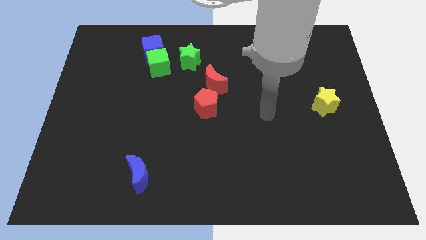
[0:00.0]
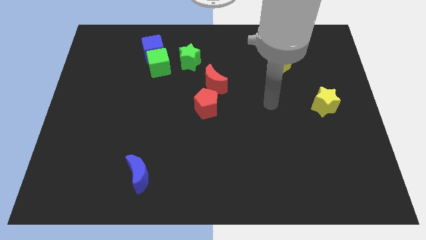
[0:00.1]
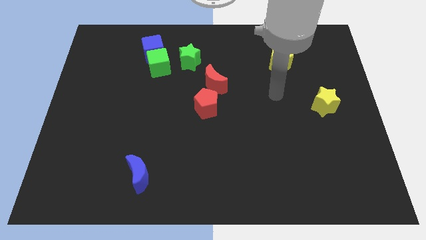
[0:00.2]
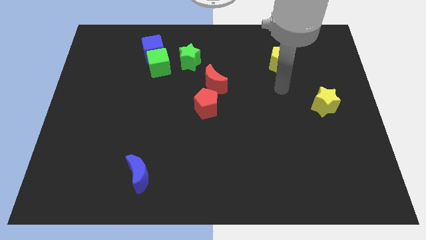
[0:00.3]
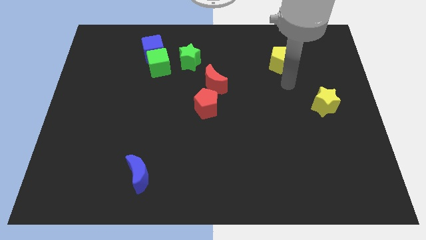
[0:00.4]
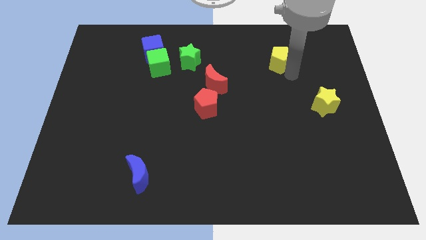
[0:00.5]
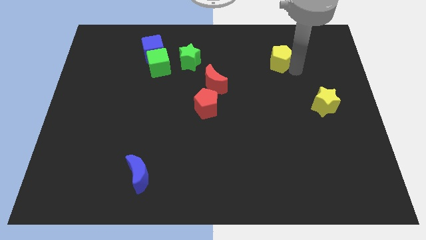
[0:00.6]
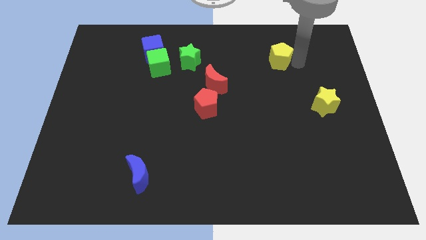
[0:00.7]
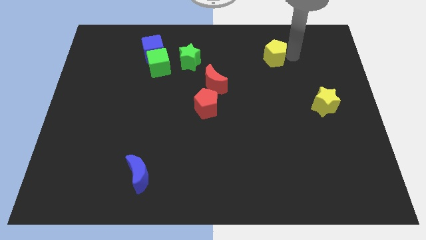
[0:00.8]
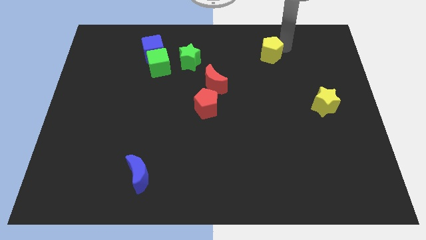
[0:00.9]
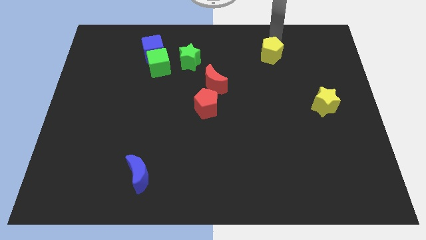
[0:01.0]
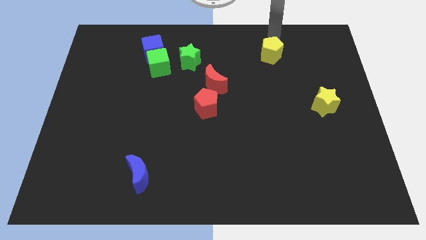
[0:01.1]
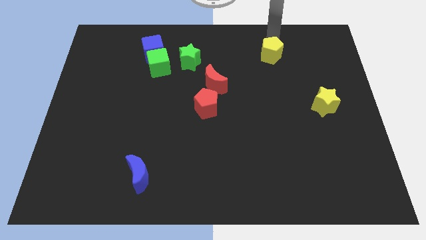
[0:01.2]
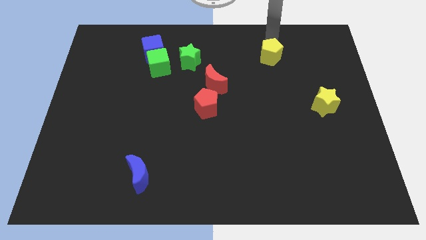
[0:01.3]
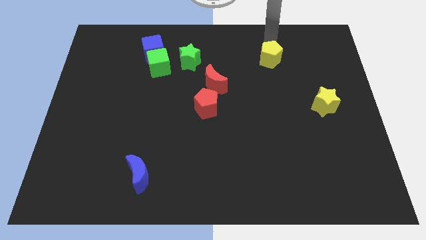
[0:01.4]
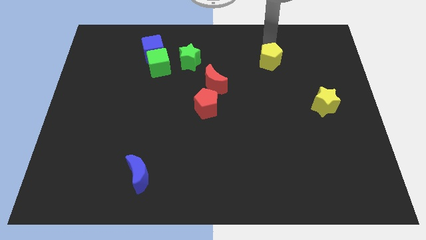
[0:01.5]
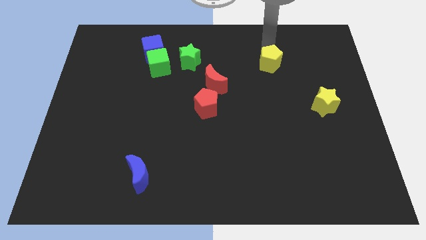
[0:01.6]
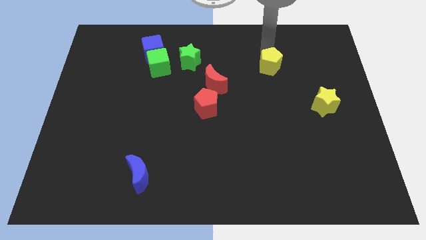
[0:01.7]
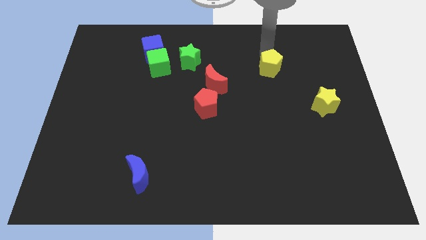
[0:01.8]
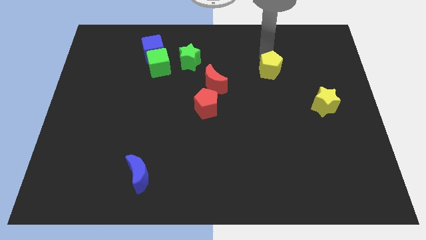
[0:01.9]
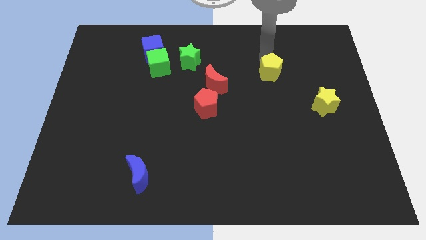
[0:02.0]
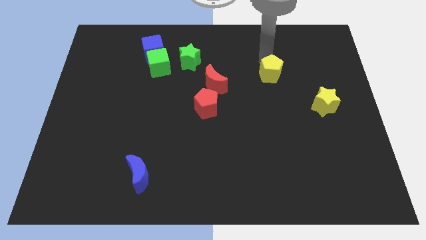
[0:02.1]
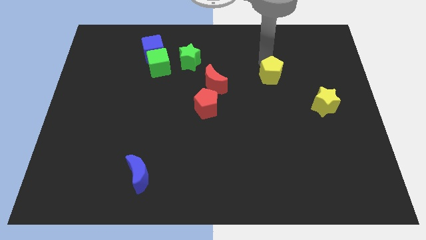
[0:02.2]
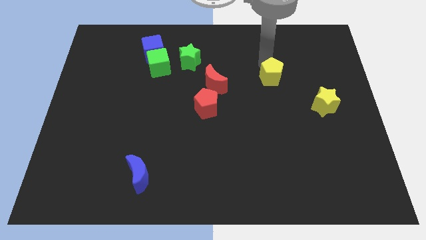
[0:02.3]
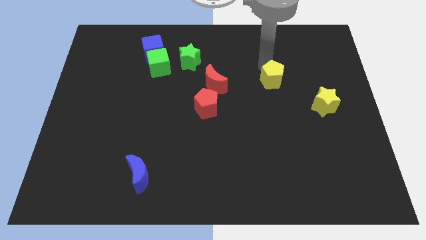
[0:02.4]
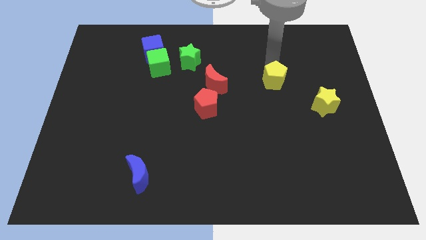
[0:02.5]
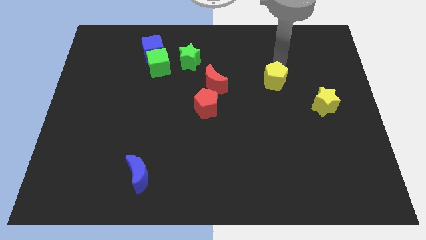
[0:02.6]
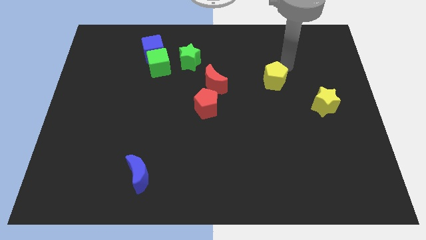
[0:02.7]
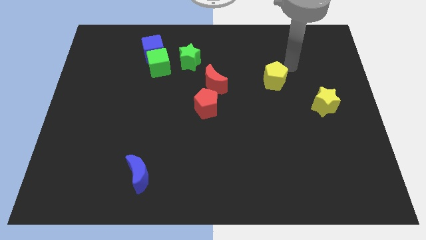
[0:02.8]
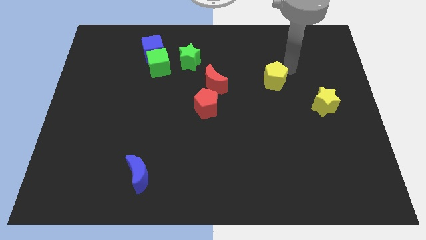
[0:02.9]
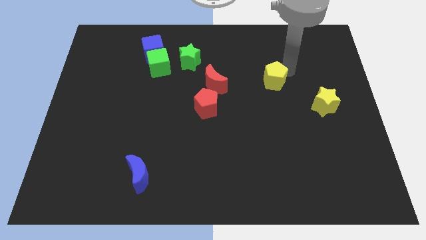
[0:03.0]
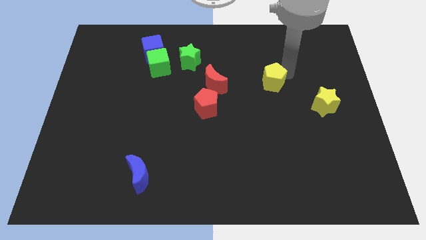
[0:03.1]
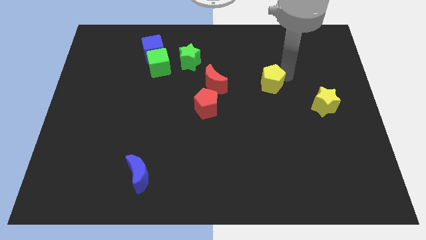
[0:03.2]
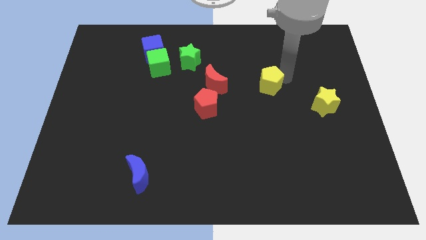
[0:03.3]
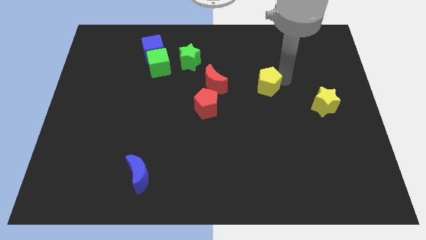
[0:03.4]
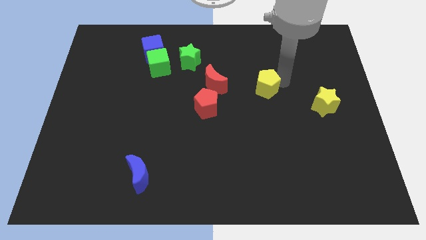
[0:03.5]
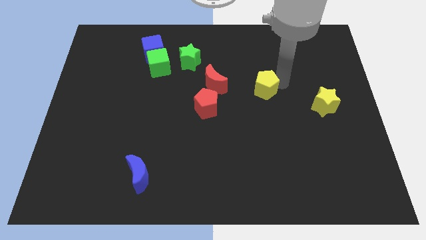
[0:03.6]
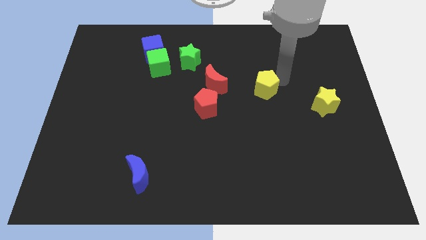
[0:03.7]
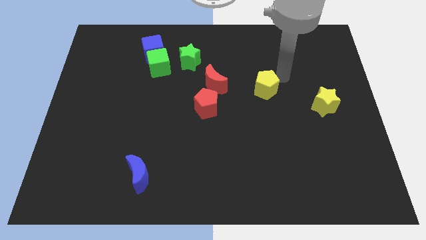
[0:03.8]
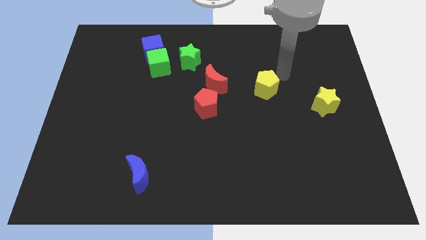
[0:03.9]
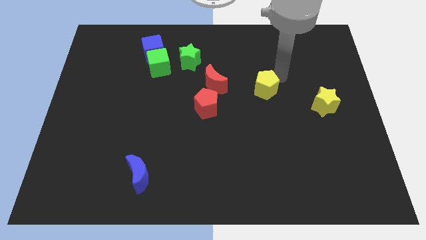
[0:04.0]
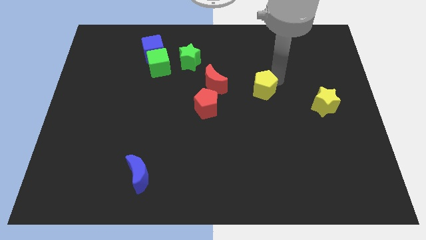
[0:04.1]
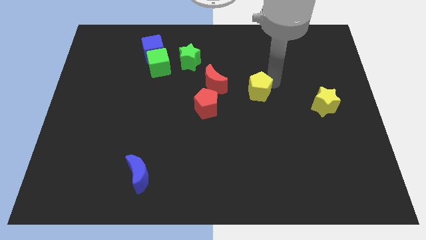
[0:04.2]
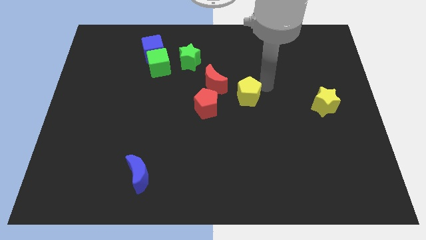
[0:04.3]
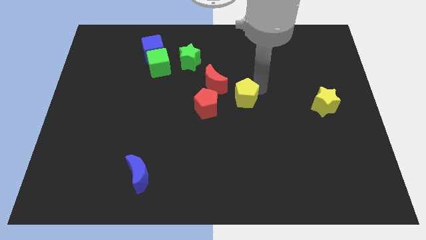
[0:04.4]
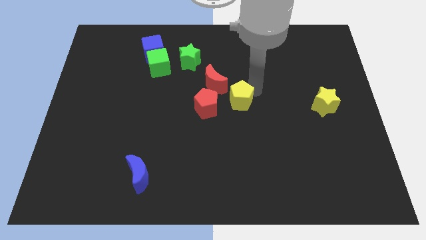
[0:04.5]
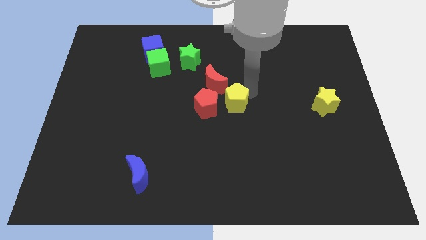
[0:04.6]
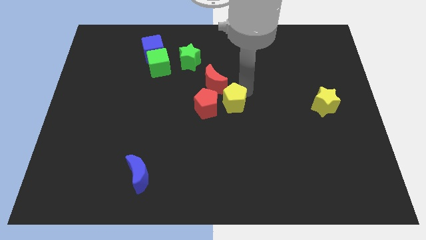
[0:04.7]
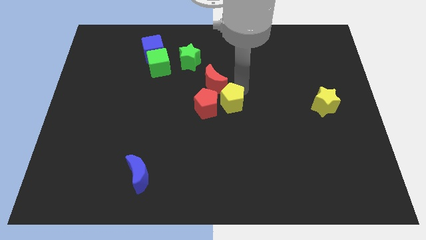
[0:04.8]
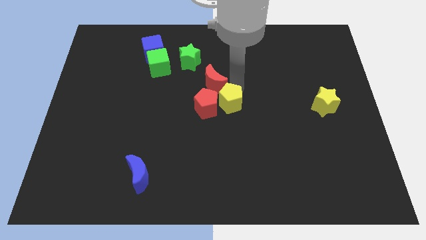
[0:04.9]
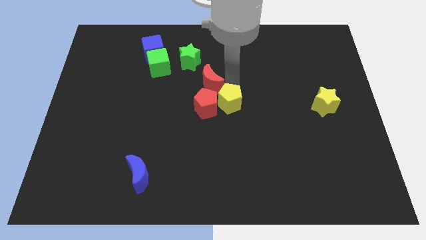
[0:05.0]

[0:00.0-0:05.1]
put the yellow pentagon diagonally down and to the right of the red pentagon

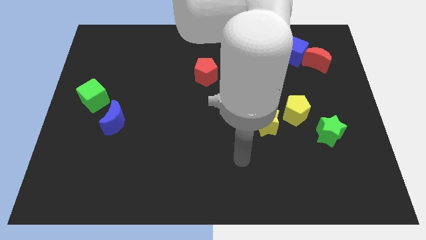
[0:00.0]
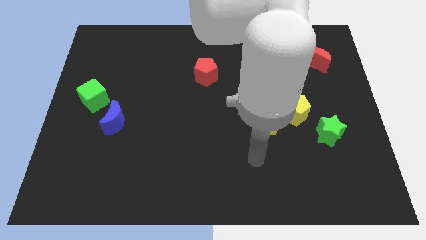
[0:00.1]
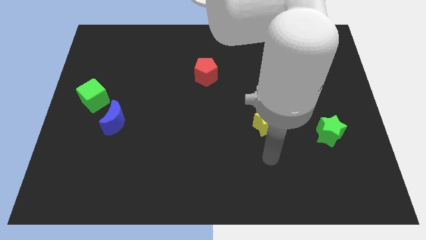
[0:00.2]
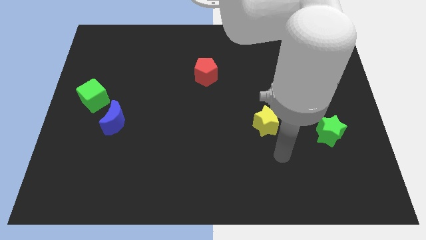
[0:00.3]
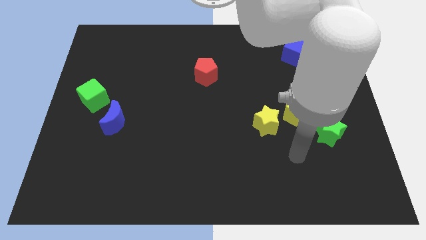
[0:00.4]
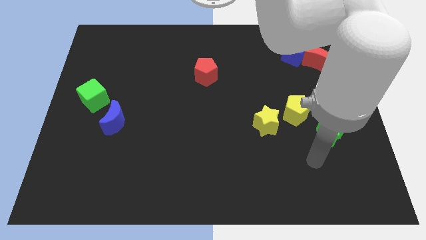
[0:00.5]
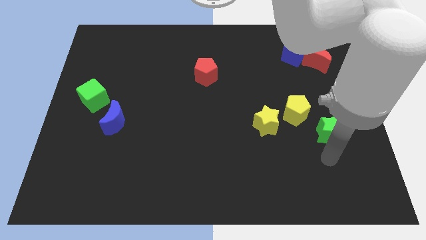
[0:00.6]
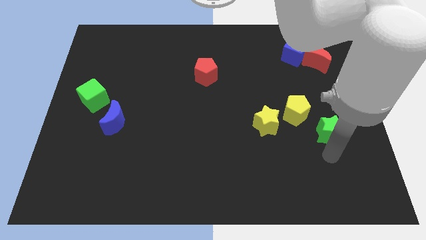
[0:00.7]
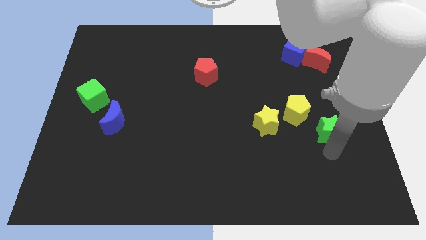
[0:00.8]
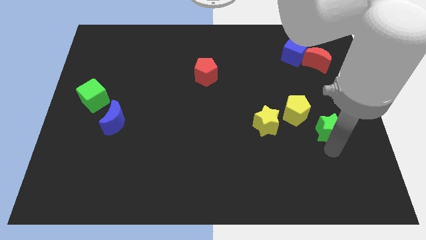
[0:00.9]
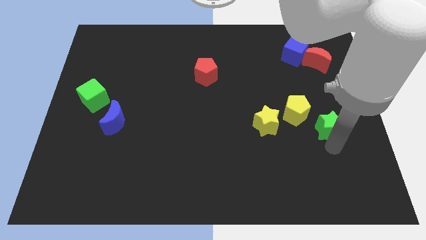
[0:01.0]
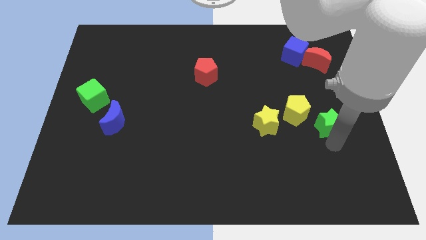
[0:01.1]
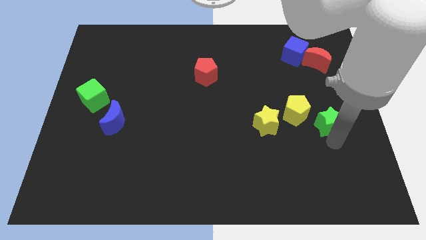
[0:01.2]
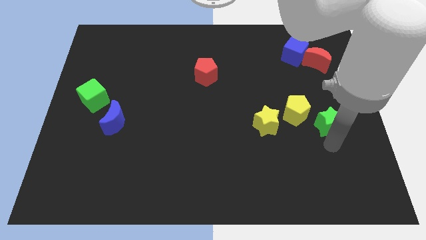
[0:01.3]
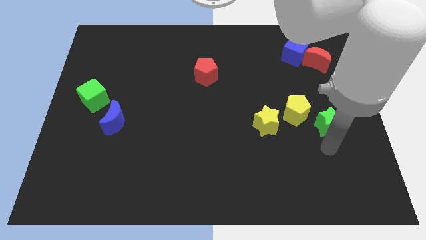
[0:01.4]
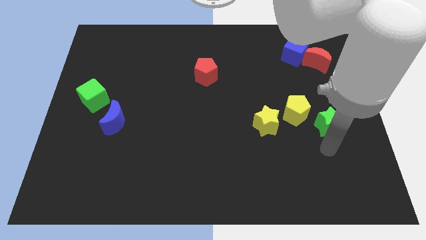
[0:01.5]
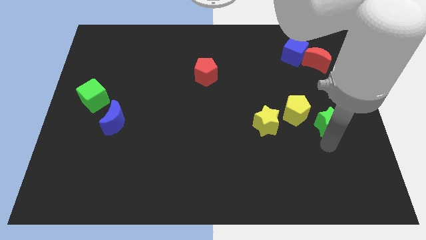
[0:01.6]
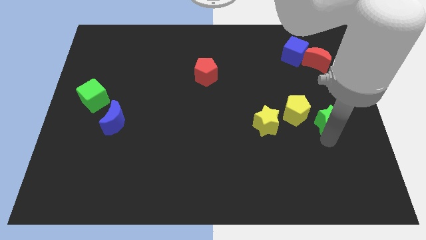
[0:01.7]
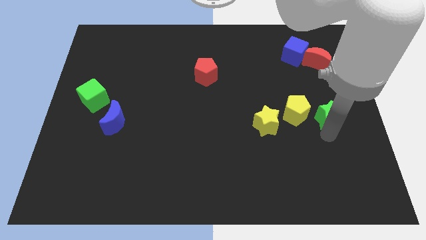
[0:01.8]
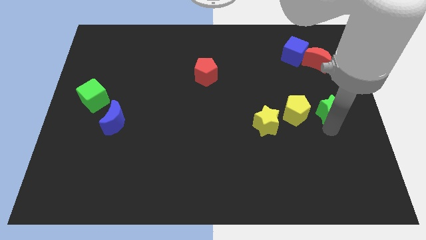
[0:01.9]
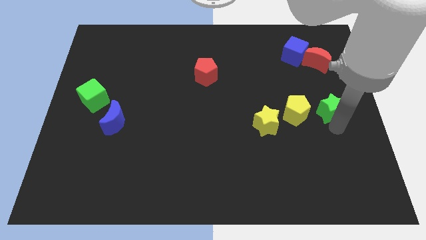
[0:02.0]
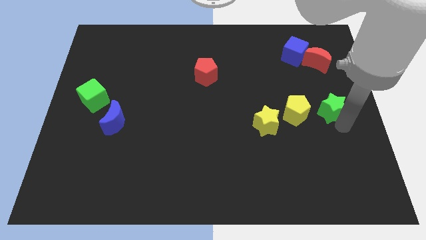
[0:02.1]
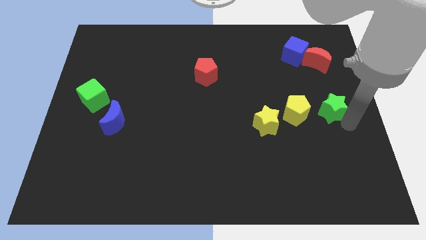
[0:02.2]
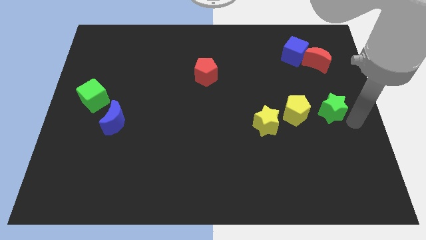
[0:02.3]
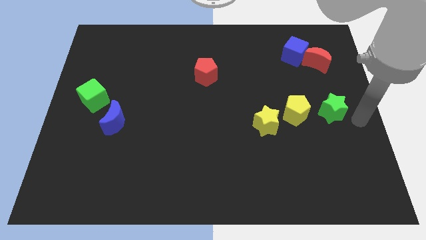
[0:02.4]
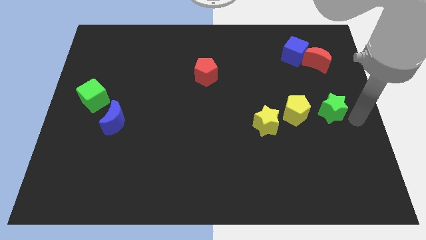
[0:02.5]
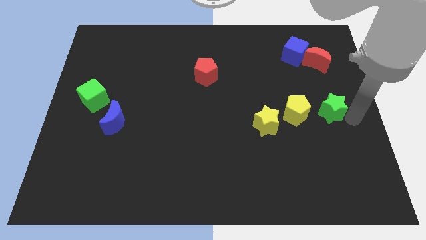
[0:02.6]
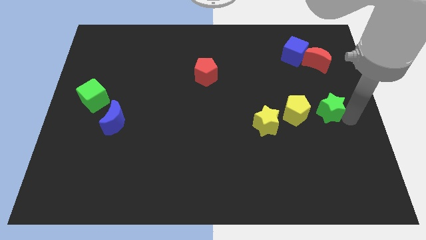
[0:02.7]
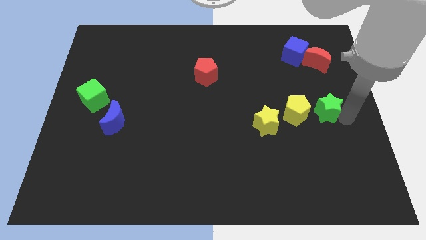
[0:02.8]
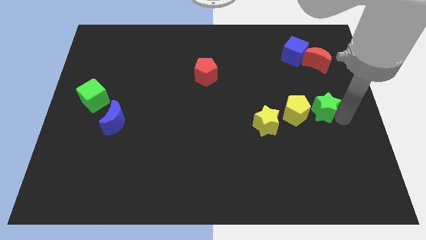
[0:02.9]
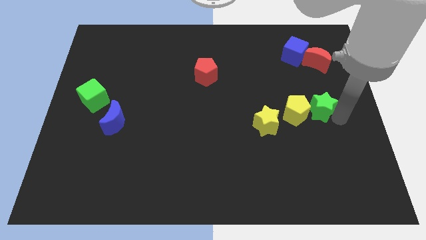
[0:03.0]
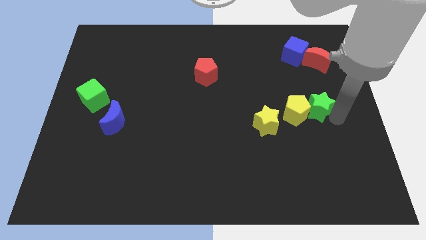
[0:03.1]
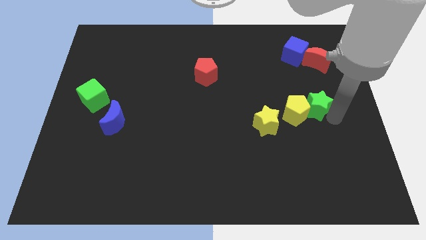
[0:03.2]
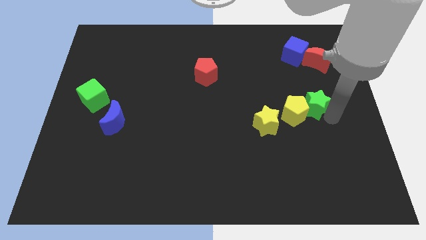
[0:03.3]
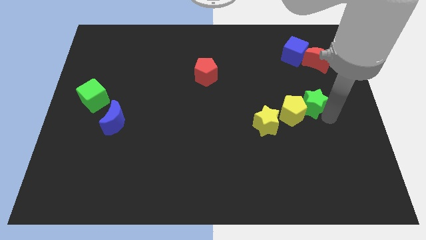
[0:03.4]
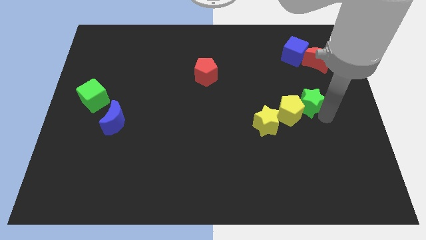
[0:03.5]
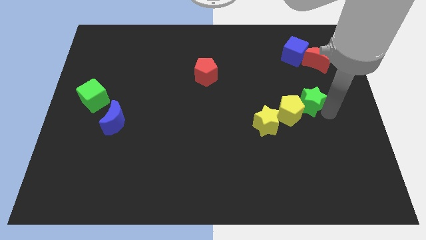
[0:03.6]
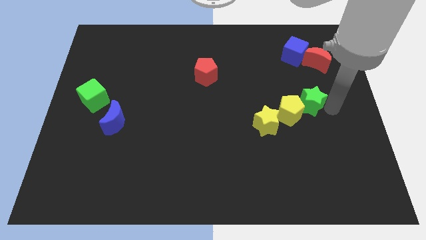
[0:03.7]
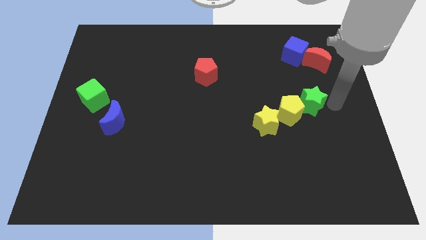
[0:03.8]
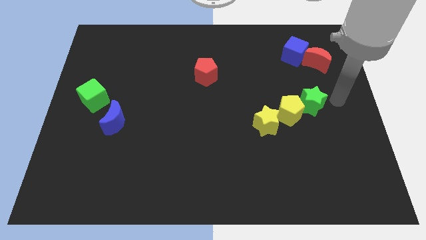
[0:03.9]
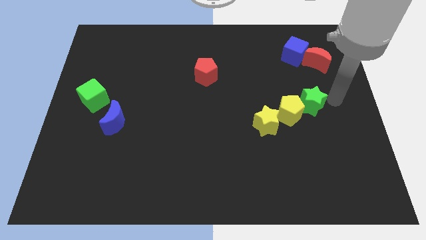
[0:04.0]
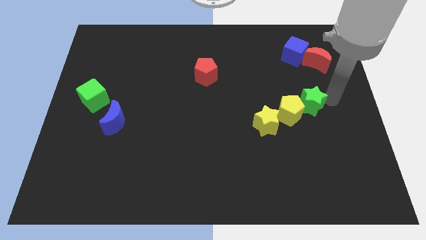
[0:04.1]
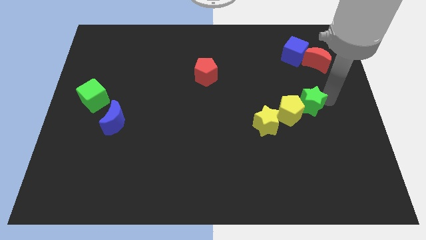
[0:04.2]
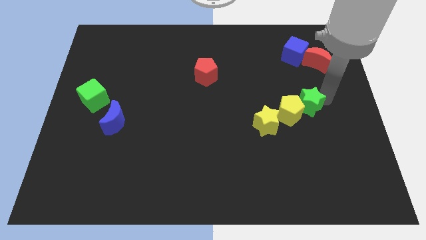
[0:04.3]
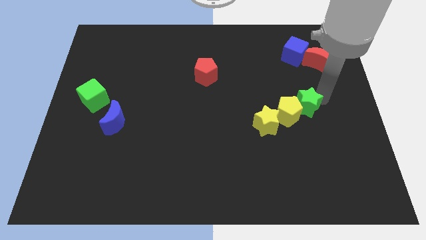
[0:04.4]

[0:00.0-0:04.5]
move the green star diagonally up and to the right of the yellow star
